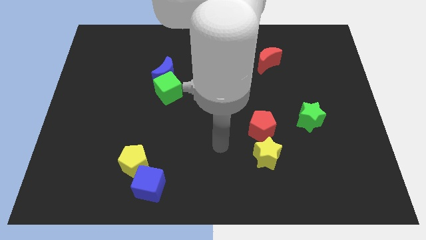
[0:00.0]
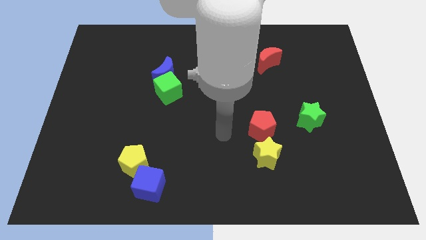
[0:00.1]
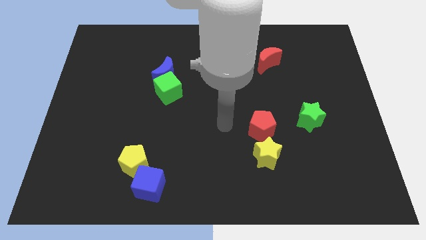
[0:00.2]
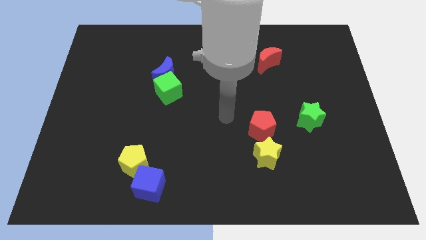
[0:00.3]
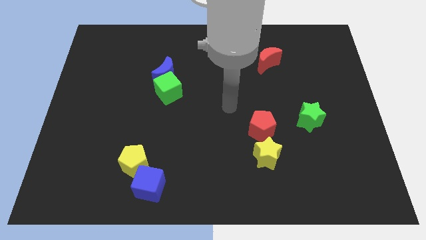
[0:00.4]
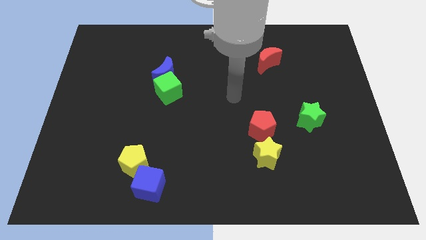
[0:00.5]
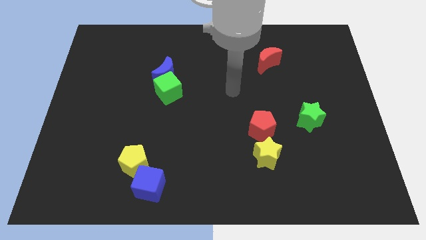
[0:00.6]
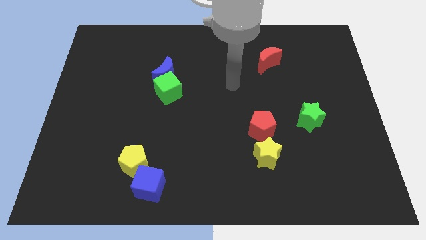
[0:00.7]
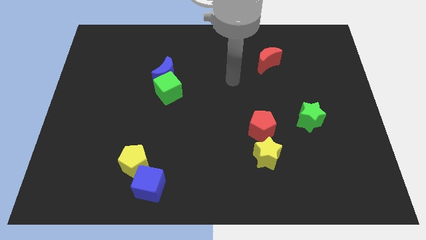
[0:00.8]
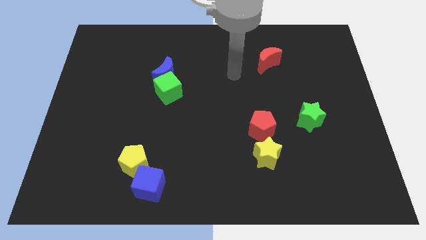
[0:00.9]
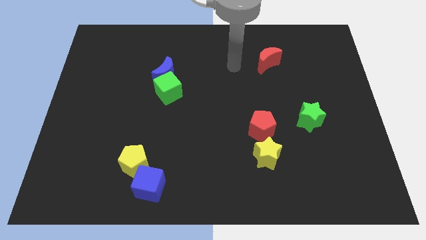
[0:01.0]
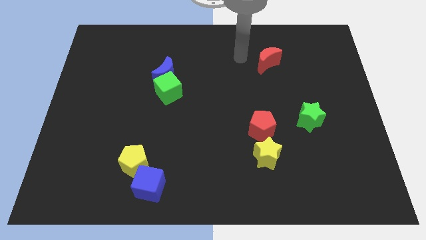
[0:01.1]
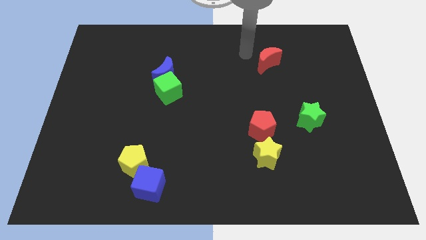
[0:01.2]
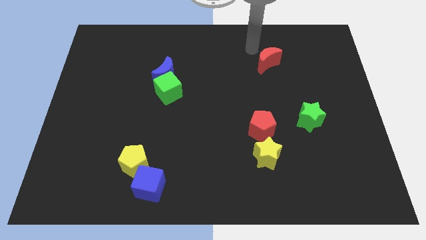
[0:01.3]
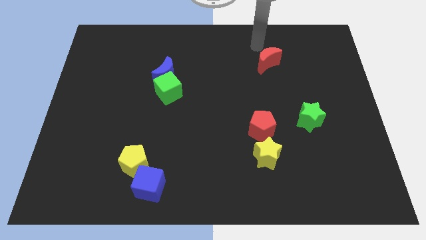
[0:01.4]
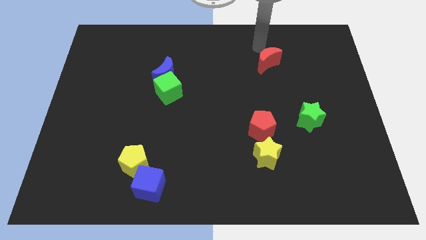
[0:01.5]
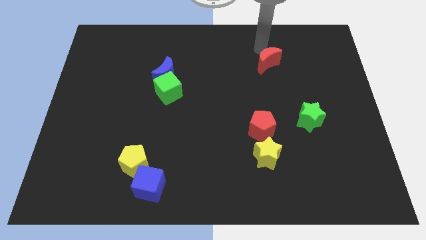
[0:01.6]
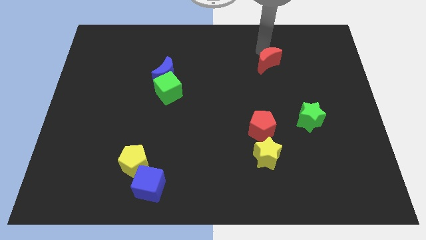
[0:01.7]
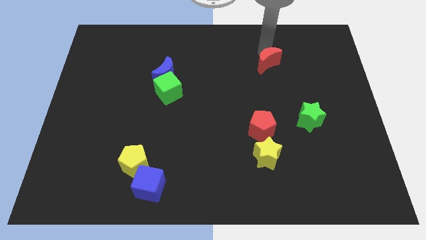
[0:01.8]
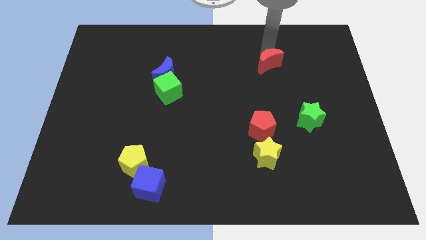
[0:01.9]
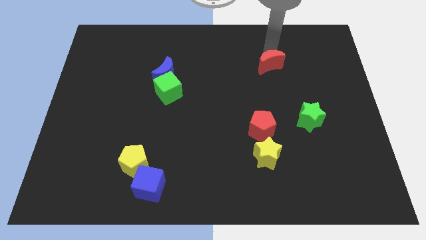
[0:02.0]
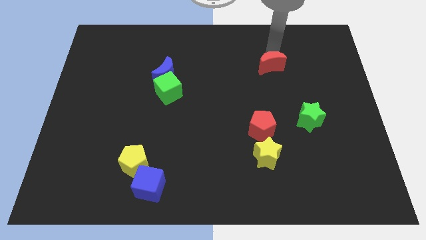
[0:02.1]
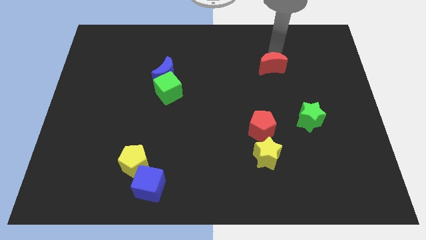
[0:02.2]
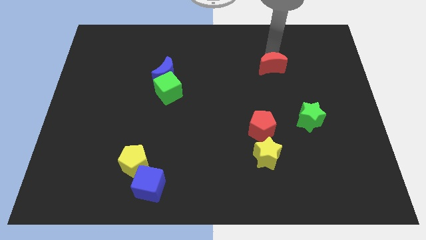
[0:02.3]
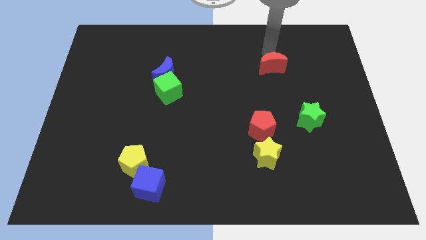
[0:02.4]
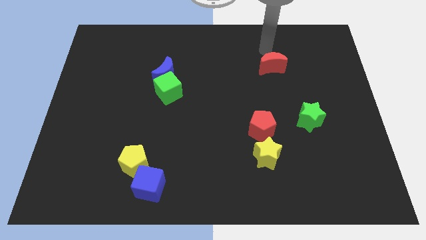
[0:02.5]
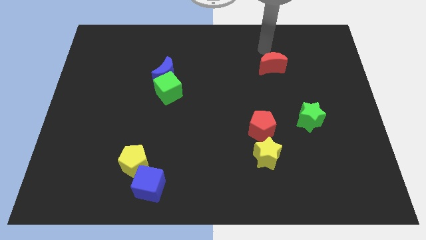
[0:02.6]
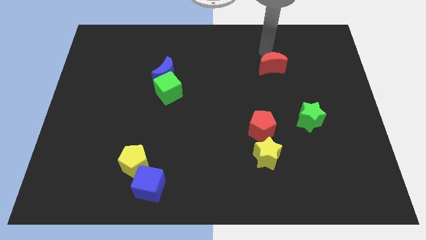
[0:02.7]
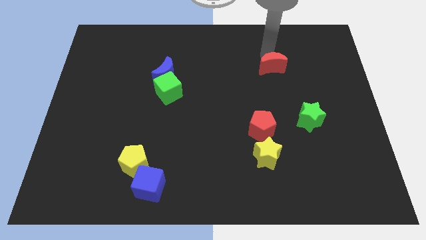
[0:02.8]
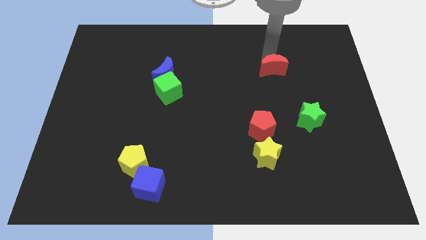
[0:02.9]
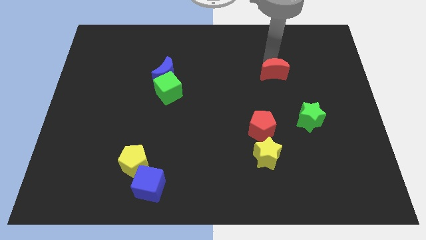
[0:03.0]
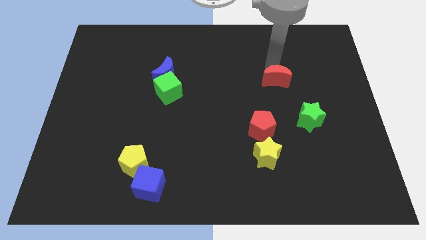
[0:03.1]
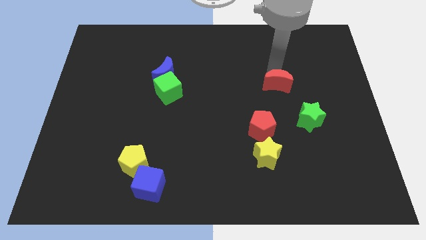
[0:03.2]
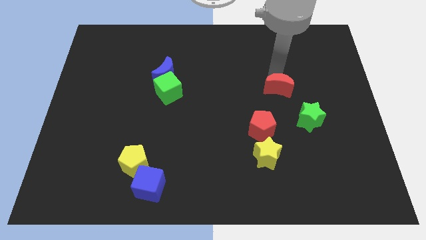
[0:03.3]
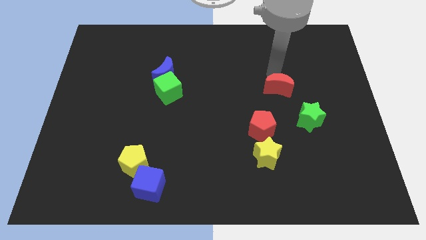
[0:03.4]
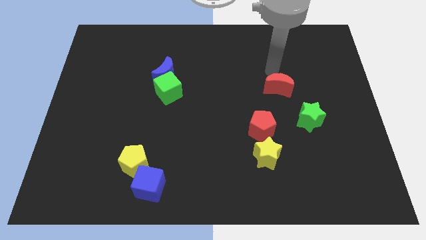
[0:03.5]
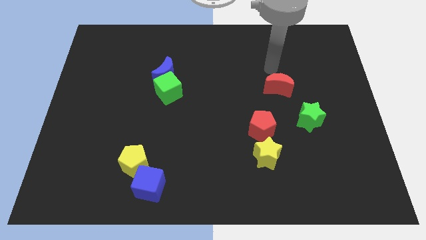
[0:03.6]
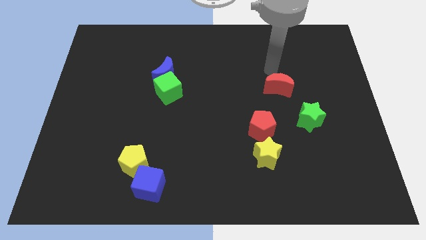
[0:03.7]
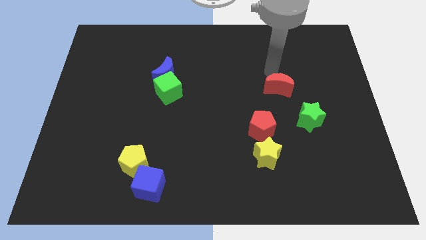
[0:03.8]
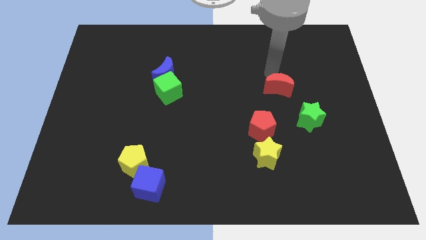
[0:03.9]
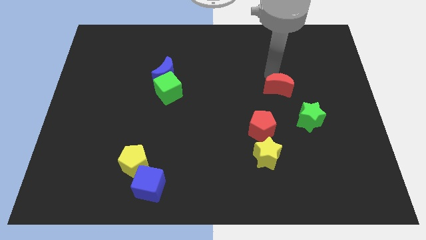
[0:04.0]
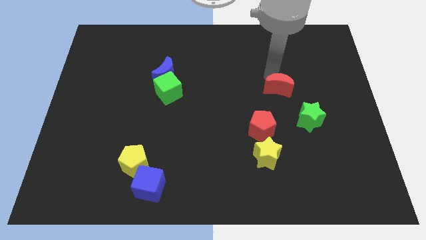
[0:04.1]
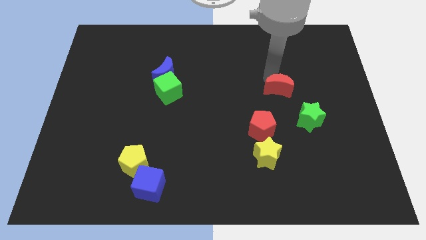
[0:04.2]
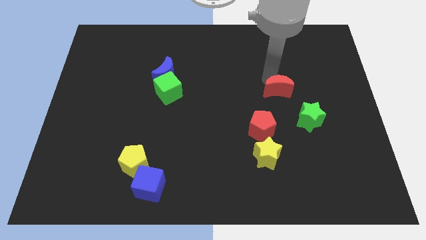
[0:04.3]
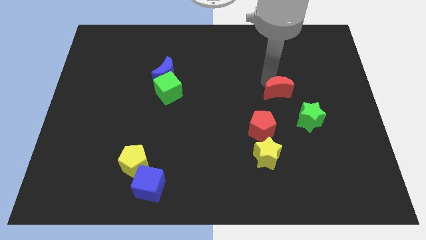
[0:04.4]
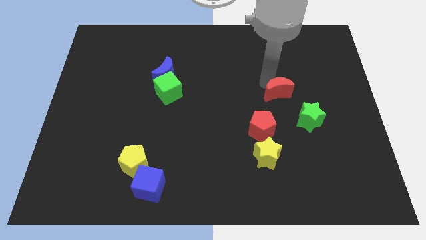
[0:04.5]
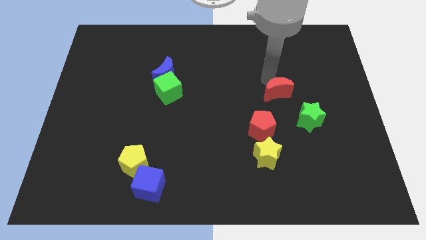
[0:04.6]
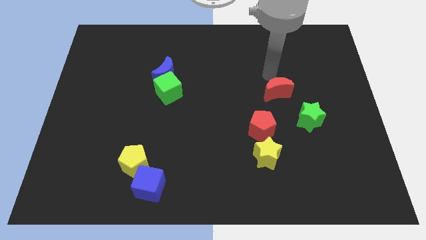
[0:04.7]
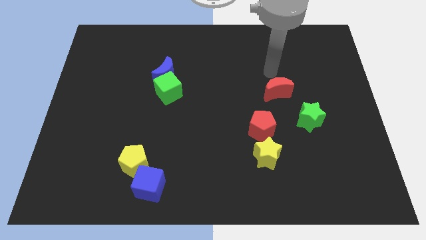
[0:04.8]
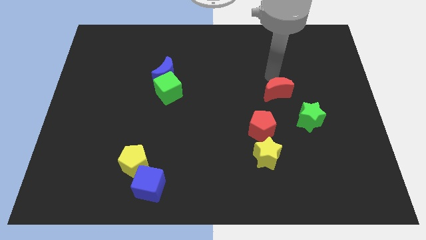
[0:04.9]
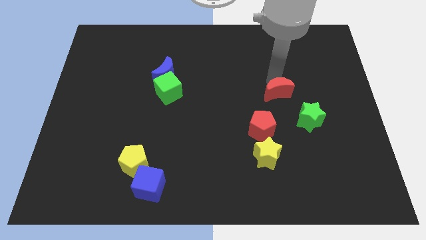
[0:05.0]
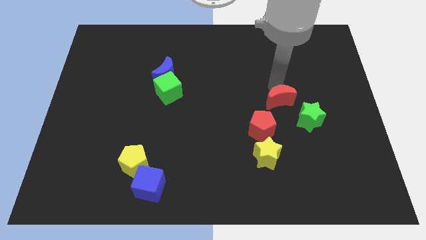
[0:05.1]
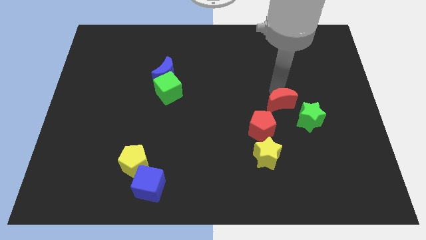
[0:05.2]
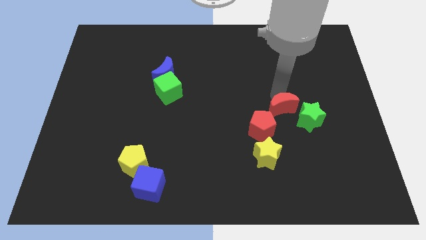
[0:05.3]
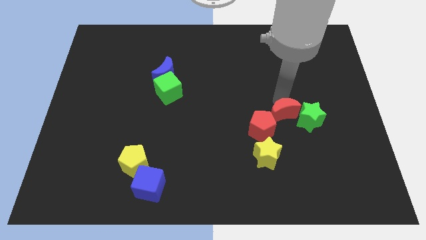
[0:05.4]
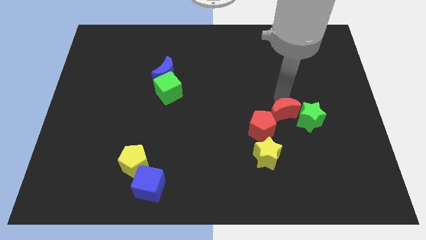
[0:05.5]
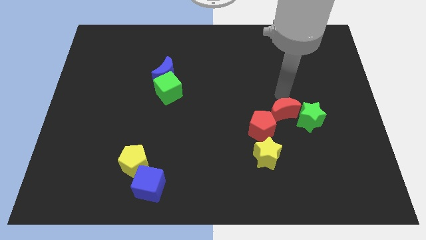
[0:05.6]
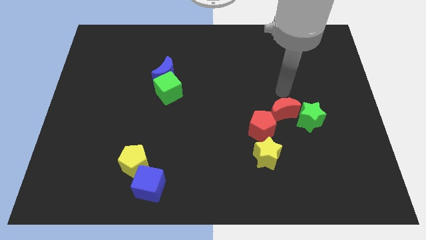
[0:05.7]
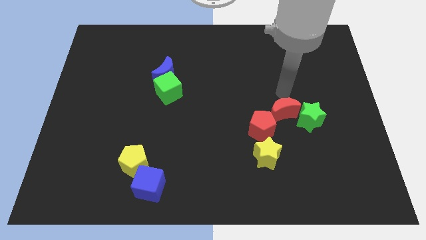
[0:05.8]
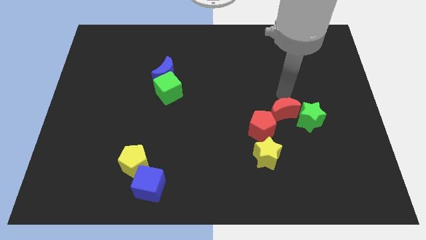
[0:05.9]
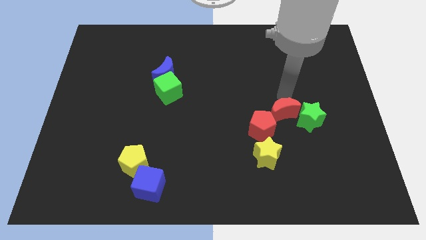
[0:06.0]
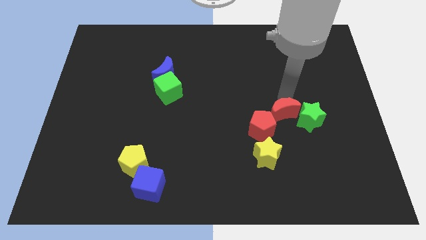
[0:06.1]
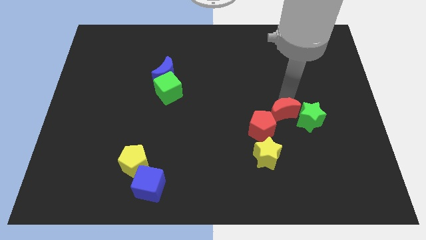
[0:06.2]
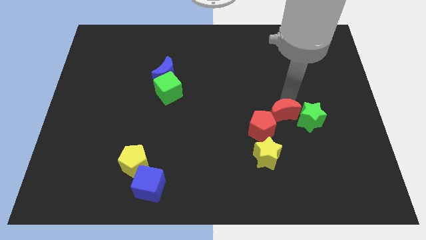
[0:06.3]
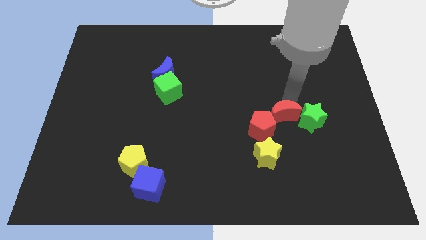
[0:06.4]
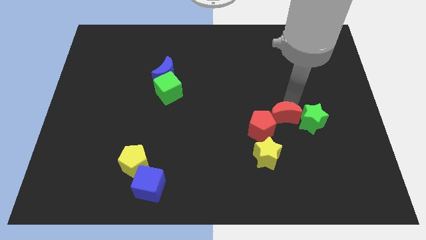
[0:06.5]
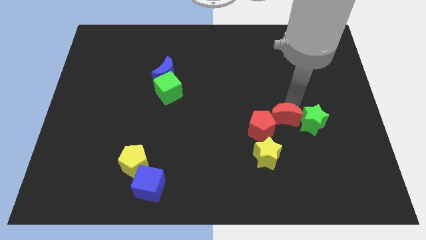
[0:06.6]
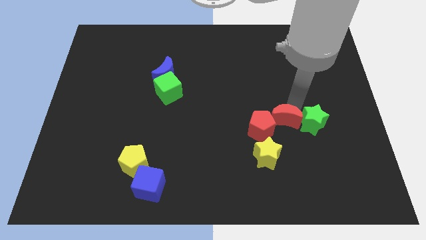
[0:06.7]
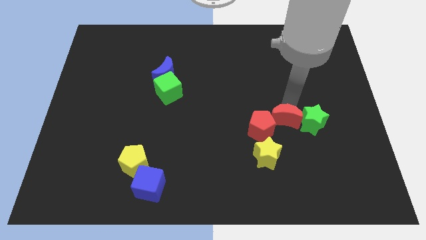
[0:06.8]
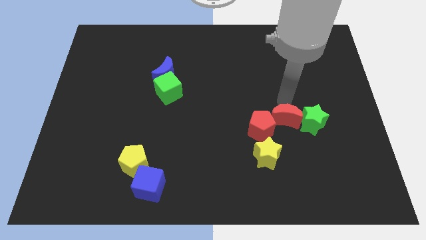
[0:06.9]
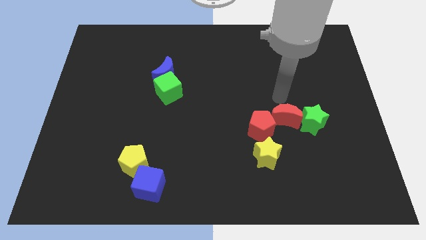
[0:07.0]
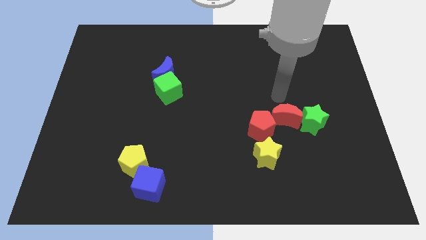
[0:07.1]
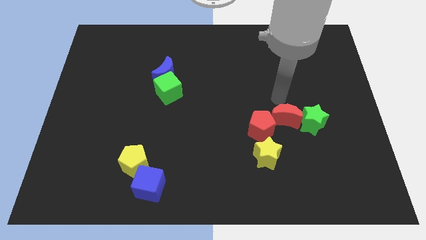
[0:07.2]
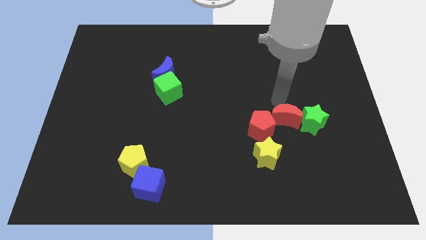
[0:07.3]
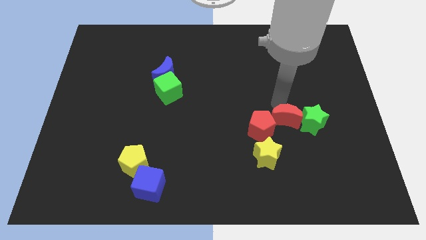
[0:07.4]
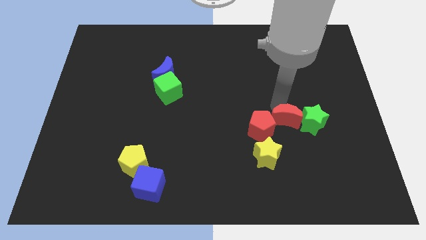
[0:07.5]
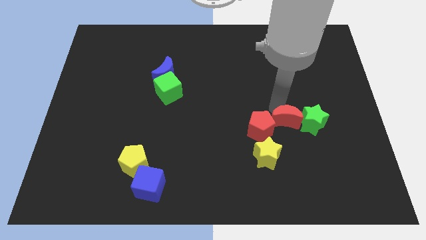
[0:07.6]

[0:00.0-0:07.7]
push the red moon diagonally down and to the left of the green star

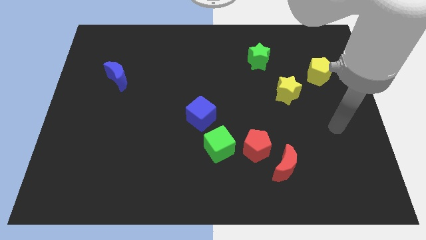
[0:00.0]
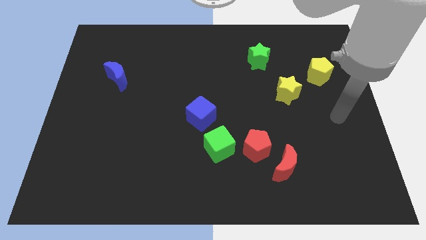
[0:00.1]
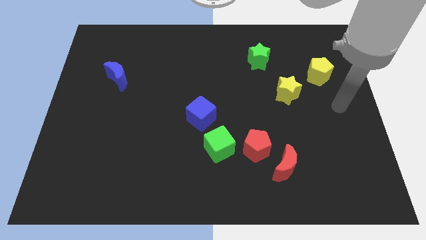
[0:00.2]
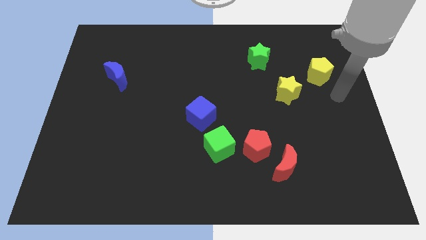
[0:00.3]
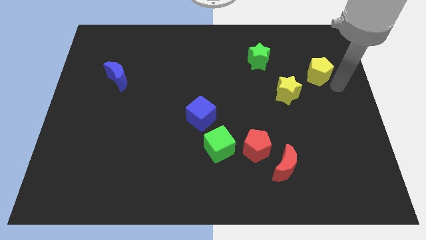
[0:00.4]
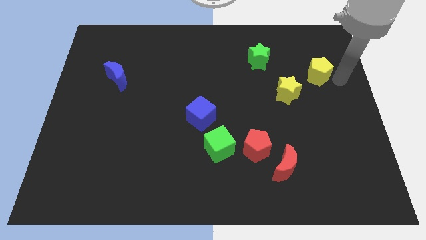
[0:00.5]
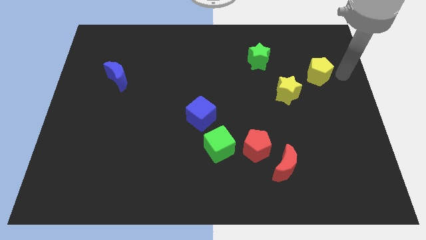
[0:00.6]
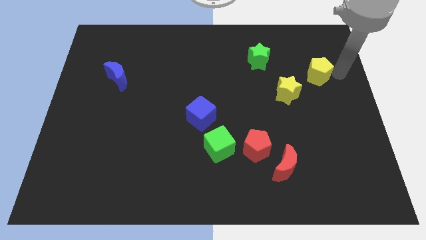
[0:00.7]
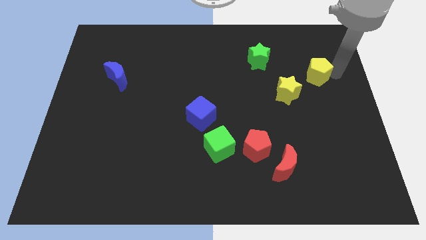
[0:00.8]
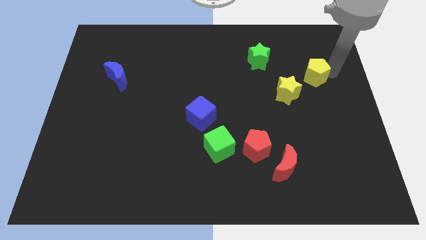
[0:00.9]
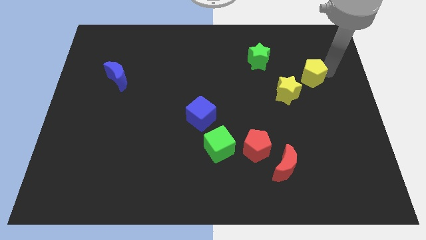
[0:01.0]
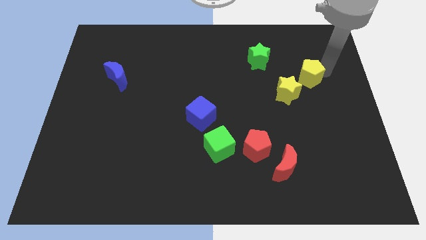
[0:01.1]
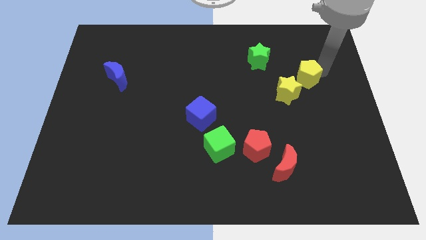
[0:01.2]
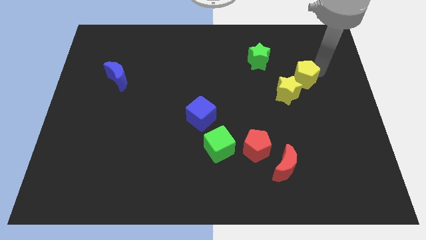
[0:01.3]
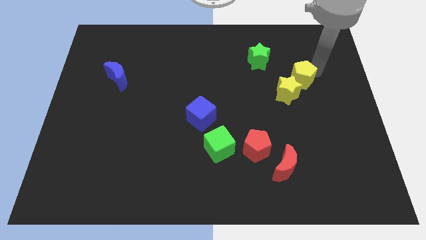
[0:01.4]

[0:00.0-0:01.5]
put the yellow pentagon to the bottom right of the green star
